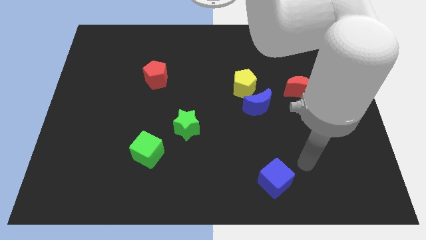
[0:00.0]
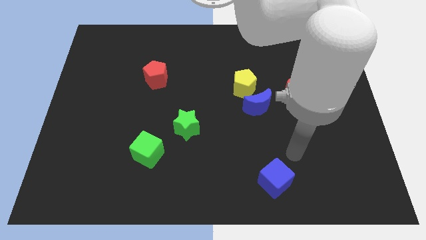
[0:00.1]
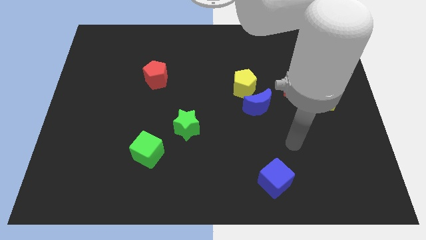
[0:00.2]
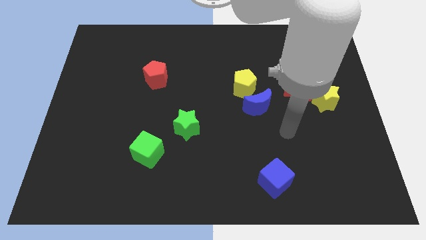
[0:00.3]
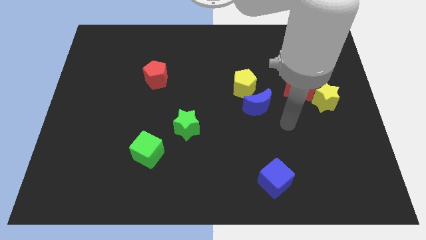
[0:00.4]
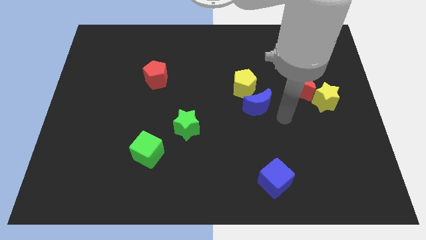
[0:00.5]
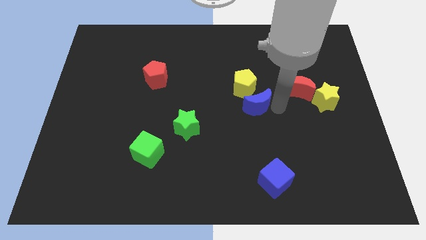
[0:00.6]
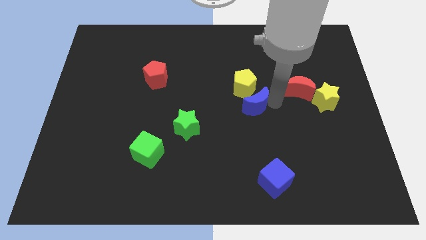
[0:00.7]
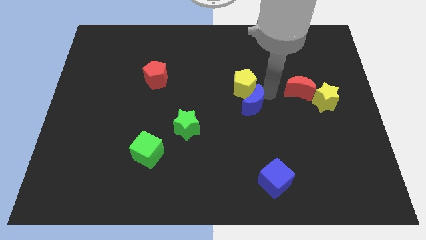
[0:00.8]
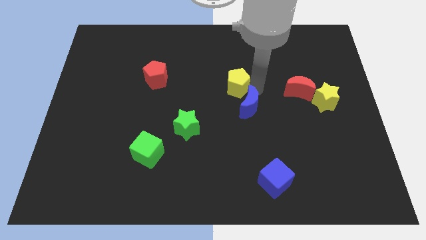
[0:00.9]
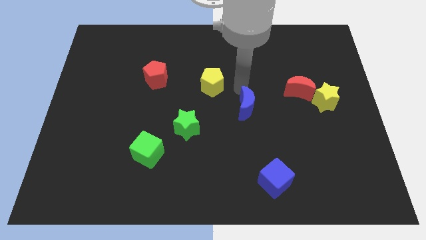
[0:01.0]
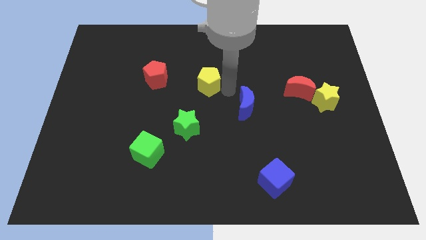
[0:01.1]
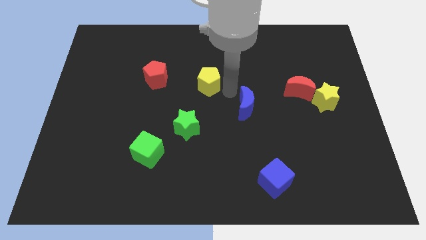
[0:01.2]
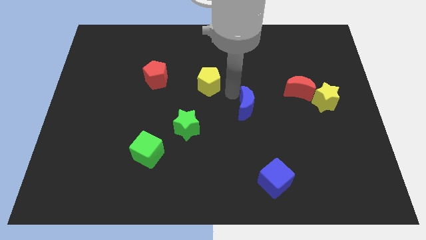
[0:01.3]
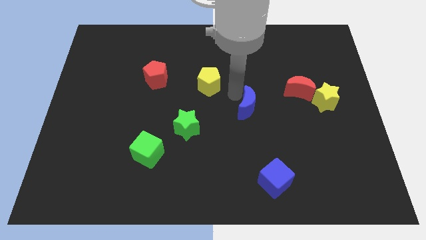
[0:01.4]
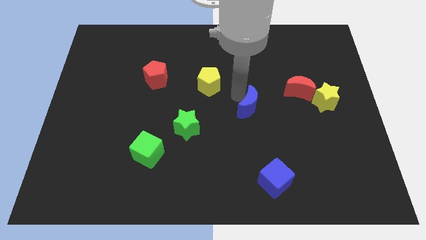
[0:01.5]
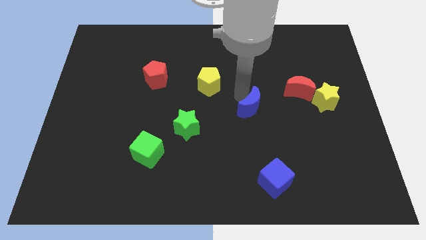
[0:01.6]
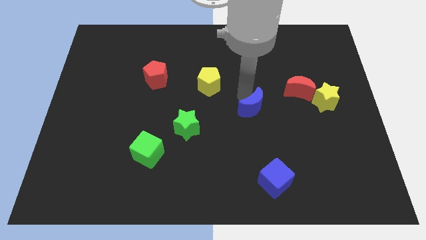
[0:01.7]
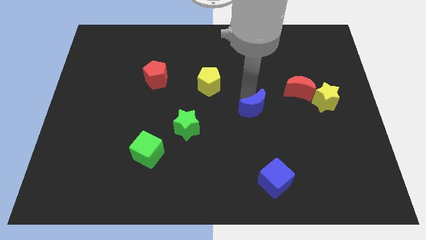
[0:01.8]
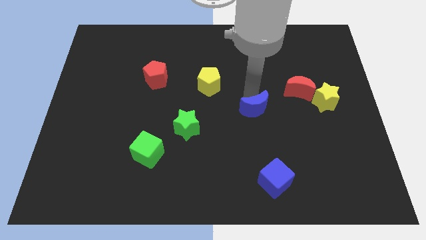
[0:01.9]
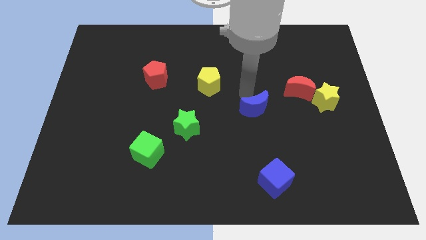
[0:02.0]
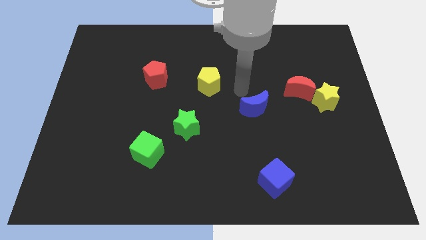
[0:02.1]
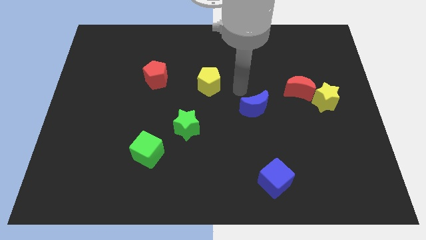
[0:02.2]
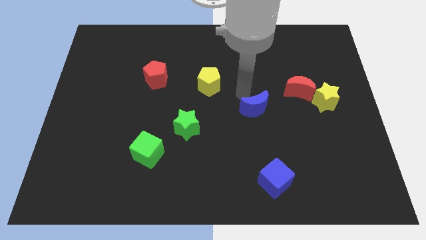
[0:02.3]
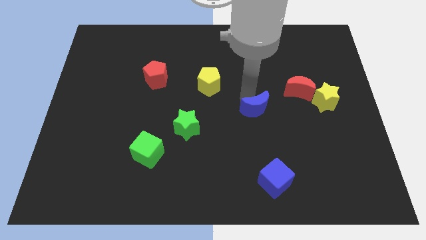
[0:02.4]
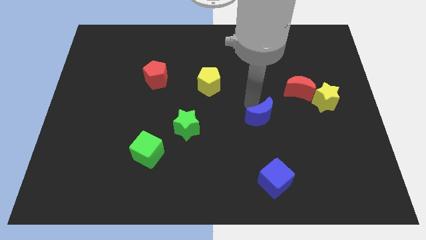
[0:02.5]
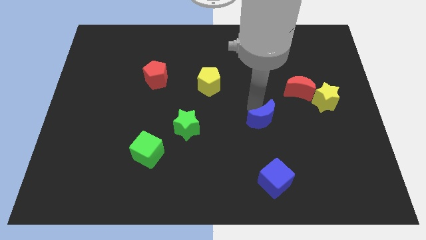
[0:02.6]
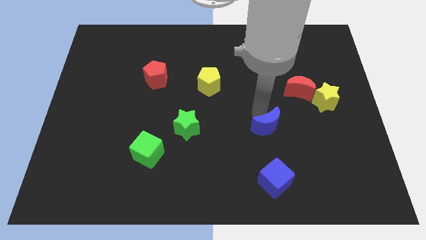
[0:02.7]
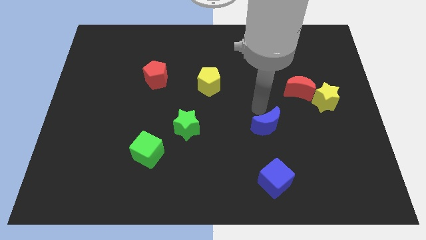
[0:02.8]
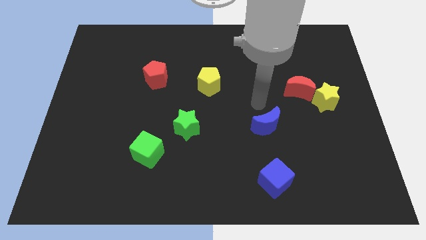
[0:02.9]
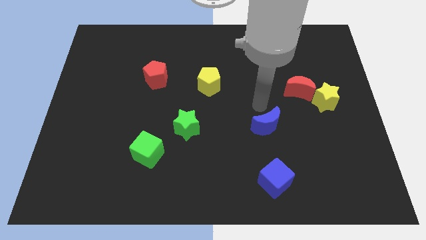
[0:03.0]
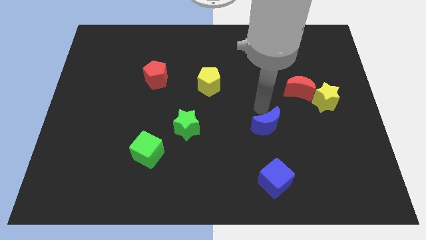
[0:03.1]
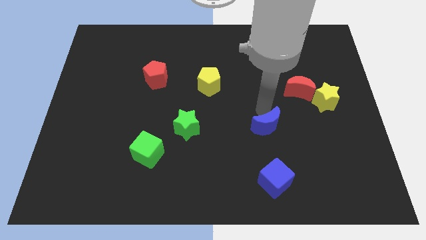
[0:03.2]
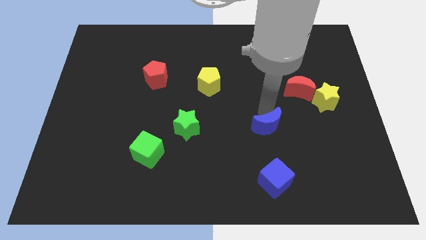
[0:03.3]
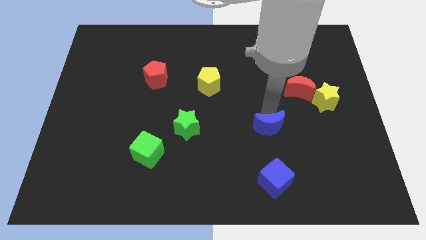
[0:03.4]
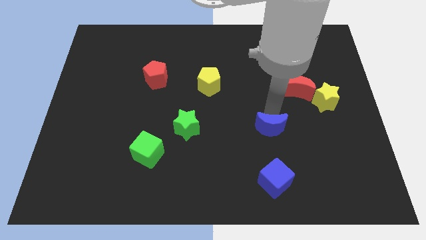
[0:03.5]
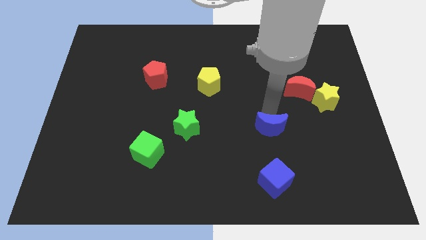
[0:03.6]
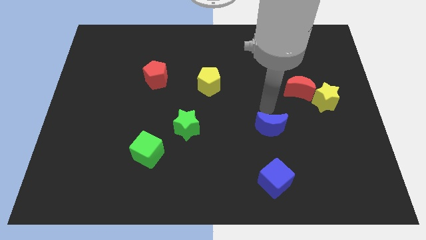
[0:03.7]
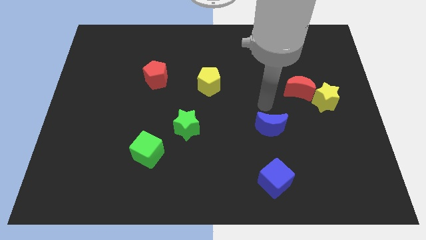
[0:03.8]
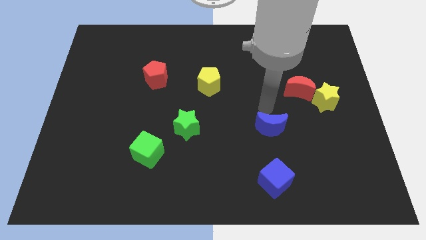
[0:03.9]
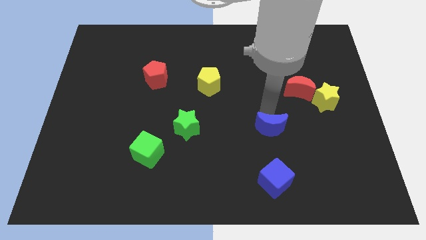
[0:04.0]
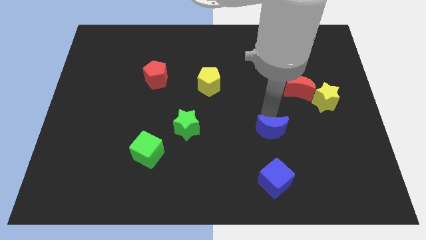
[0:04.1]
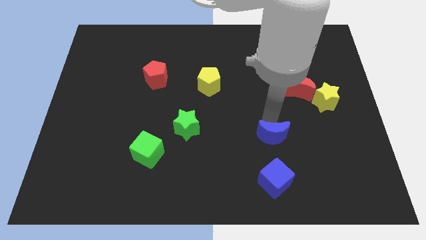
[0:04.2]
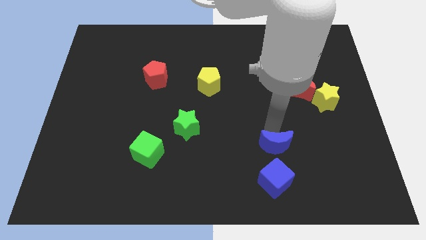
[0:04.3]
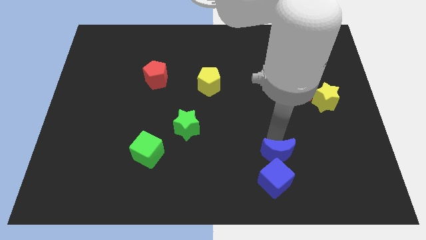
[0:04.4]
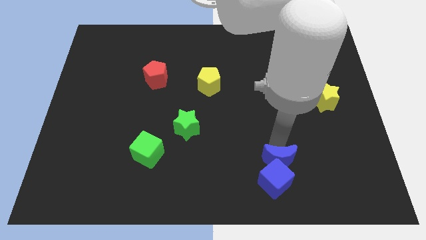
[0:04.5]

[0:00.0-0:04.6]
put the blue moon to the blue cube

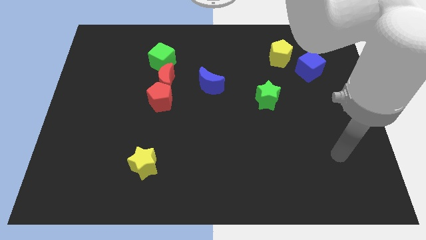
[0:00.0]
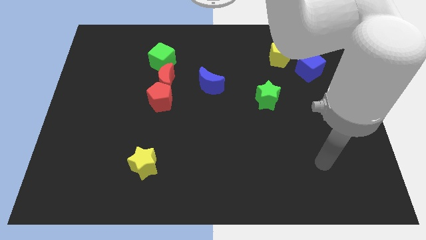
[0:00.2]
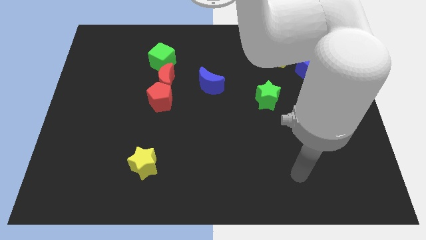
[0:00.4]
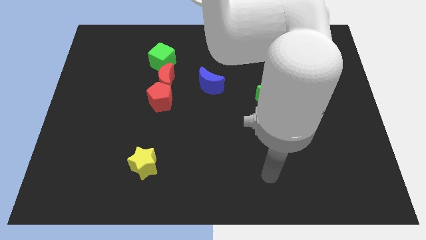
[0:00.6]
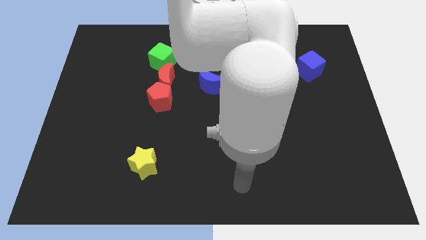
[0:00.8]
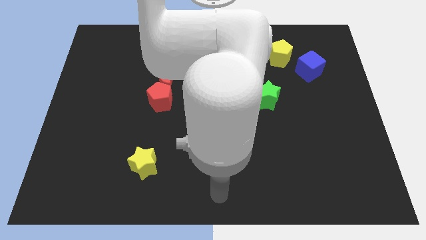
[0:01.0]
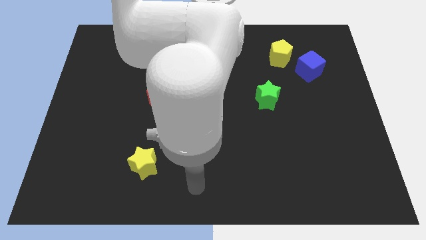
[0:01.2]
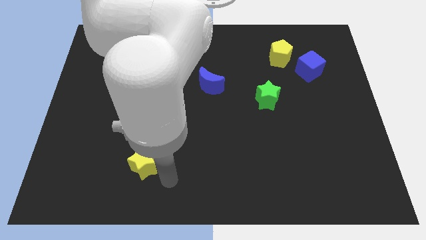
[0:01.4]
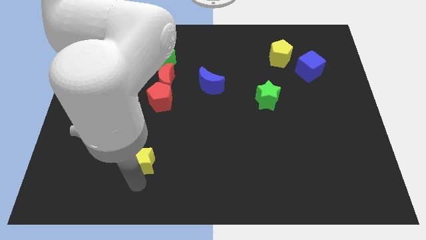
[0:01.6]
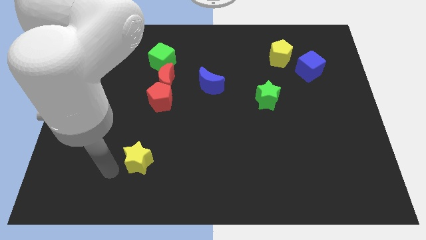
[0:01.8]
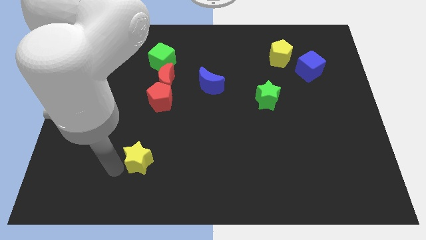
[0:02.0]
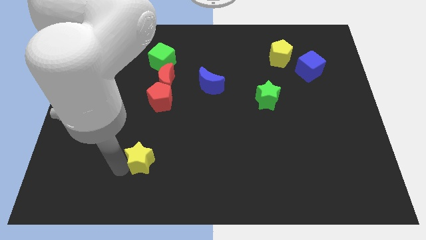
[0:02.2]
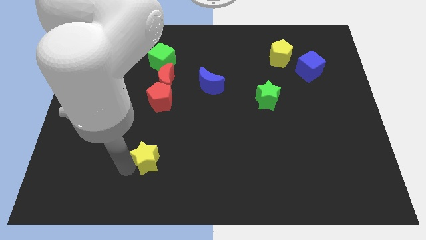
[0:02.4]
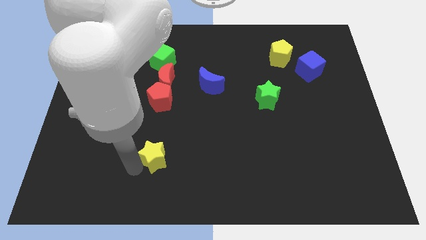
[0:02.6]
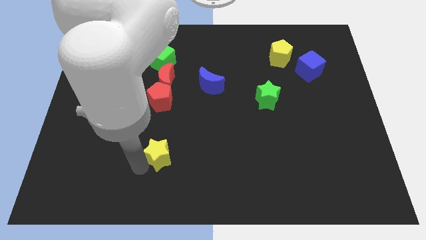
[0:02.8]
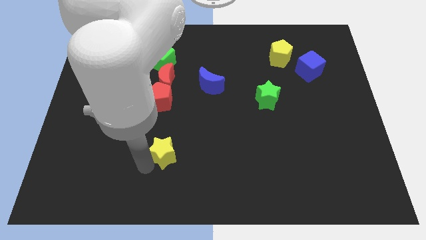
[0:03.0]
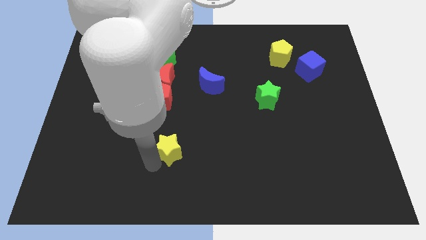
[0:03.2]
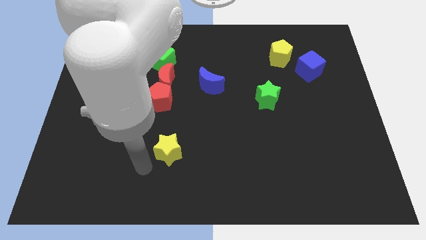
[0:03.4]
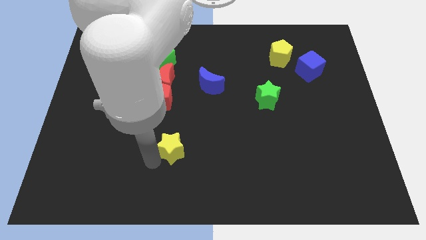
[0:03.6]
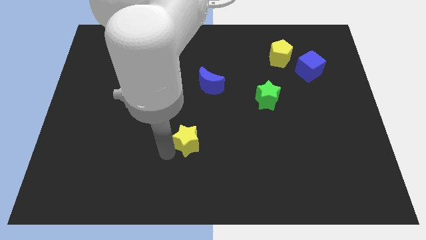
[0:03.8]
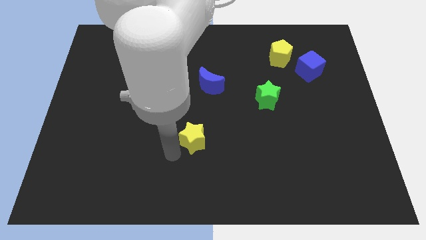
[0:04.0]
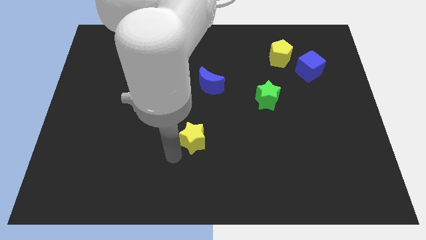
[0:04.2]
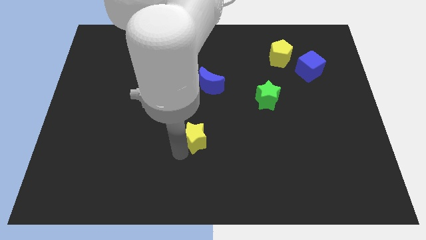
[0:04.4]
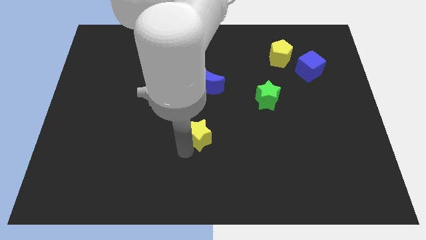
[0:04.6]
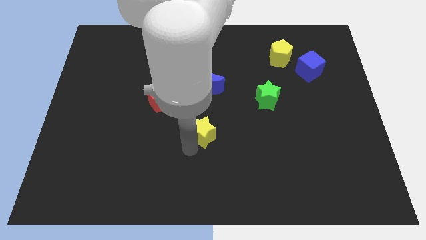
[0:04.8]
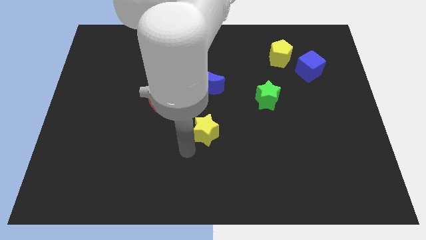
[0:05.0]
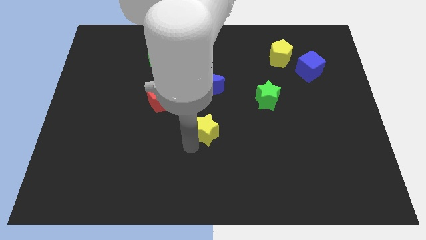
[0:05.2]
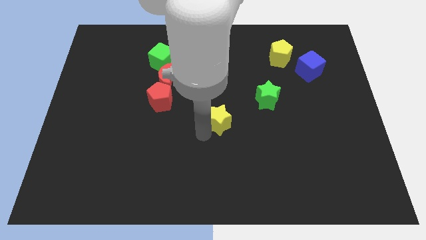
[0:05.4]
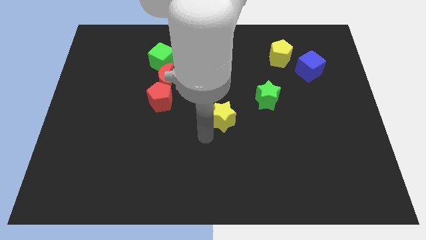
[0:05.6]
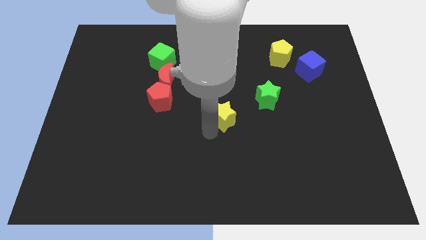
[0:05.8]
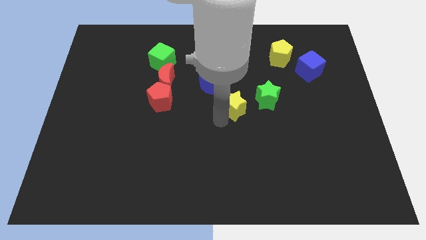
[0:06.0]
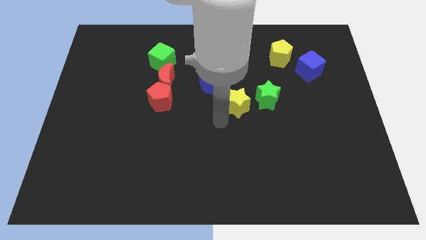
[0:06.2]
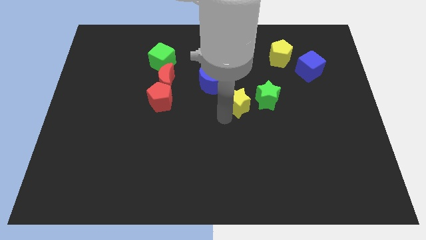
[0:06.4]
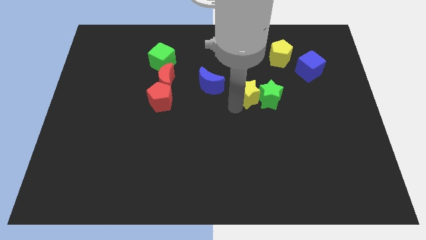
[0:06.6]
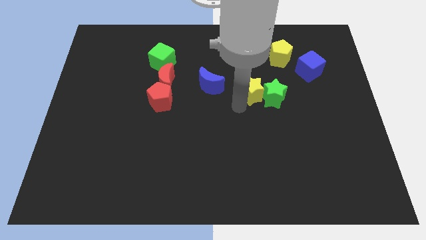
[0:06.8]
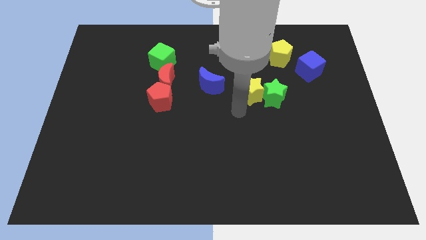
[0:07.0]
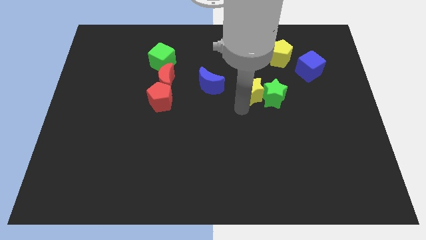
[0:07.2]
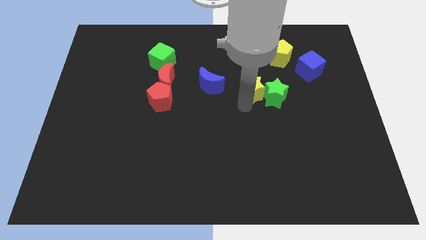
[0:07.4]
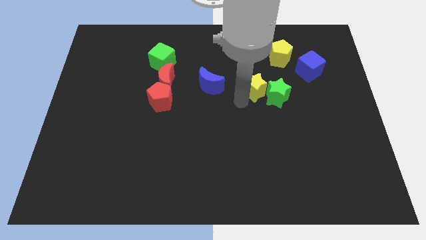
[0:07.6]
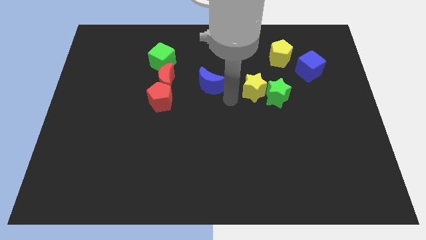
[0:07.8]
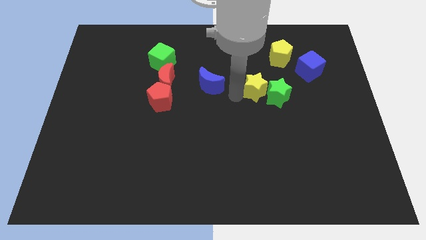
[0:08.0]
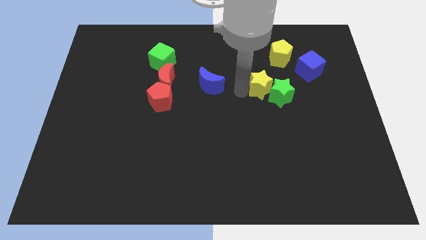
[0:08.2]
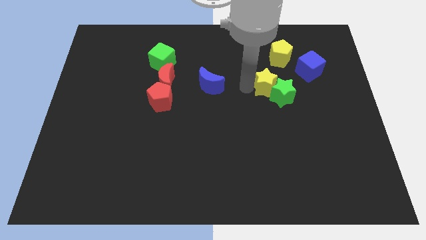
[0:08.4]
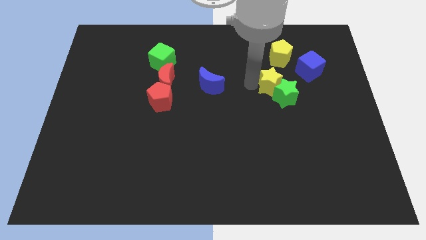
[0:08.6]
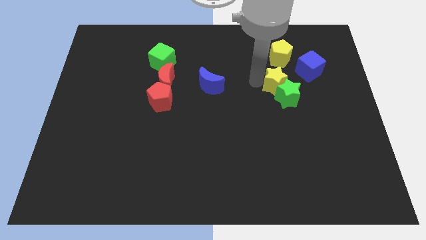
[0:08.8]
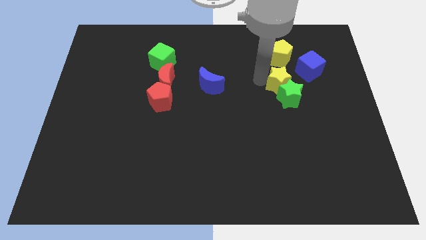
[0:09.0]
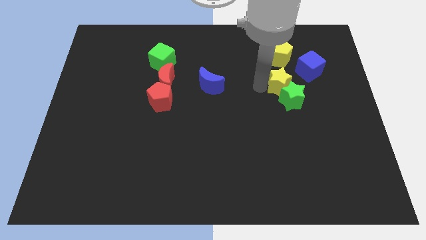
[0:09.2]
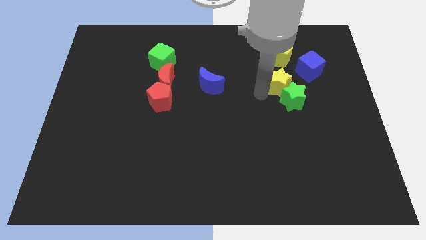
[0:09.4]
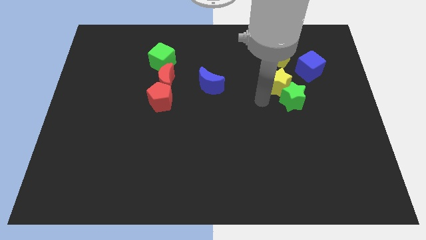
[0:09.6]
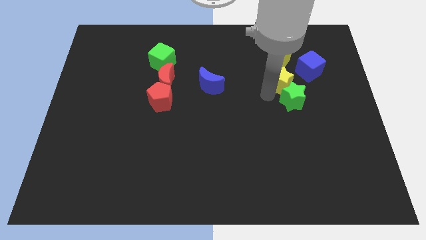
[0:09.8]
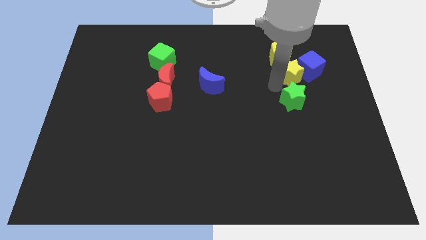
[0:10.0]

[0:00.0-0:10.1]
move the yellow star to the blue cube
